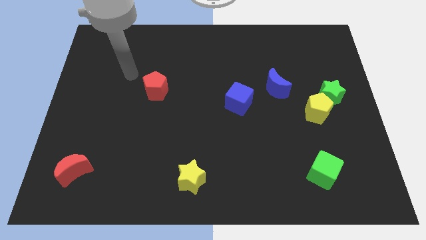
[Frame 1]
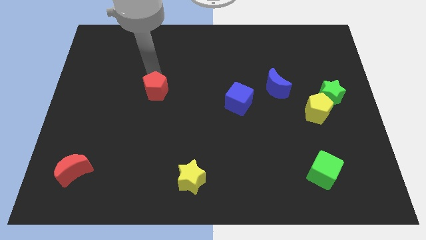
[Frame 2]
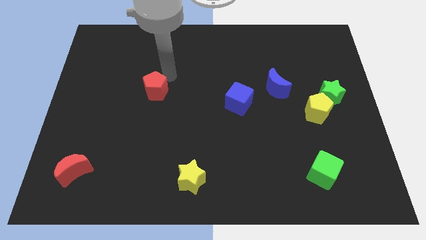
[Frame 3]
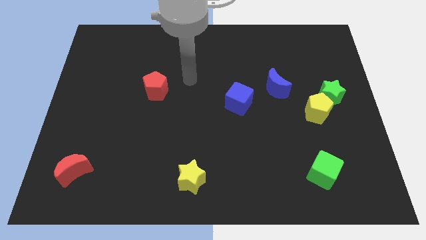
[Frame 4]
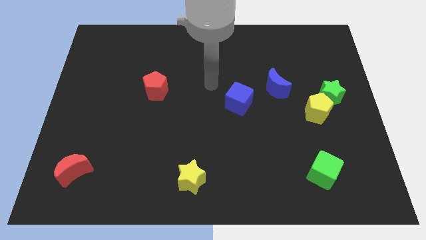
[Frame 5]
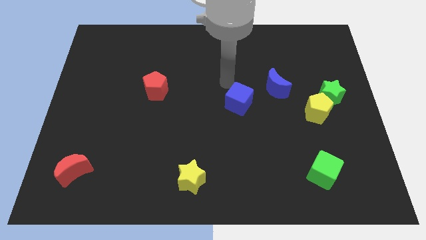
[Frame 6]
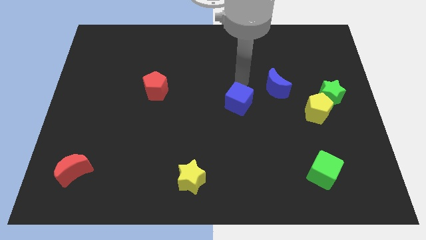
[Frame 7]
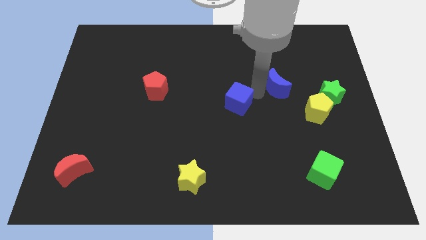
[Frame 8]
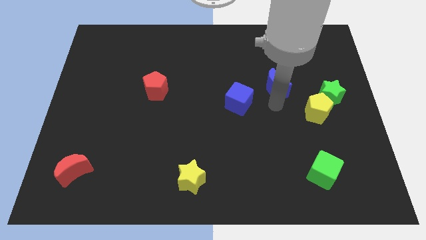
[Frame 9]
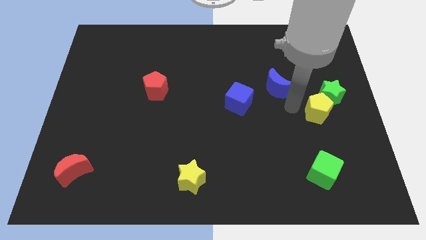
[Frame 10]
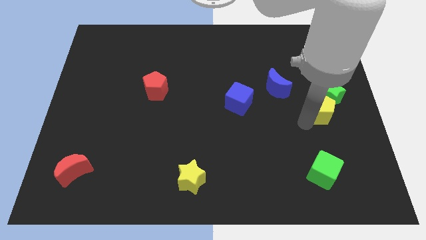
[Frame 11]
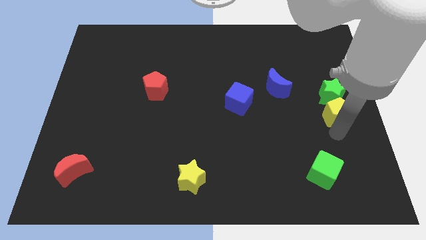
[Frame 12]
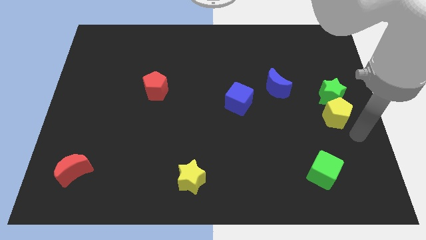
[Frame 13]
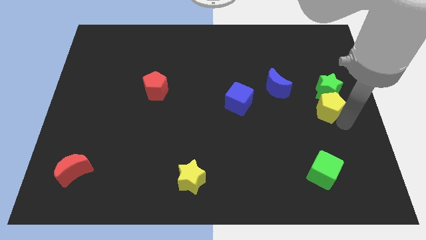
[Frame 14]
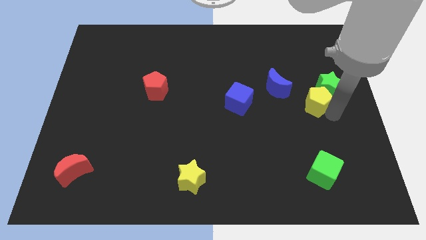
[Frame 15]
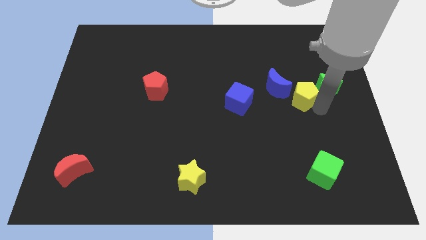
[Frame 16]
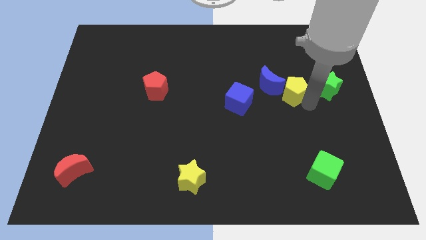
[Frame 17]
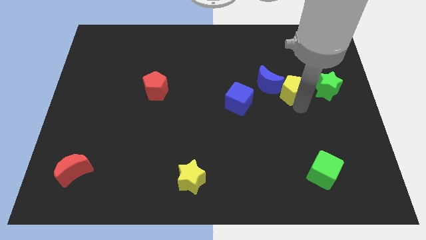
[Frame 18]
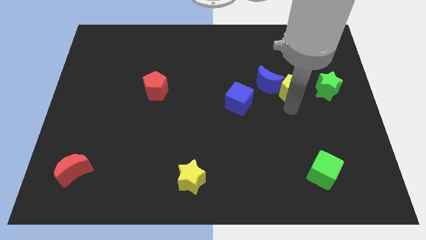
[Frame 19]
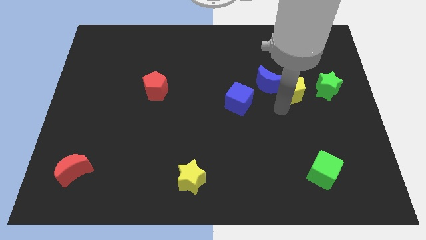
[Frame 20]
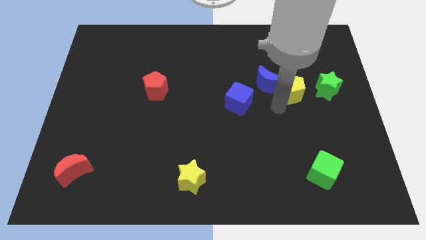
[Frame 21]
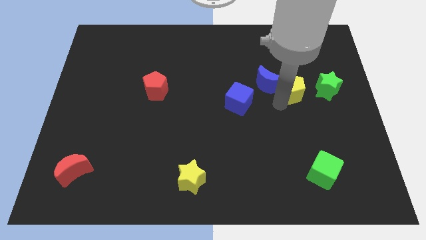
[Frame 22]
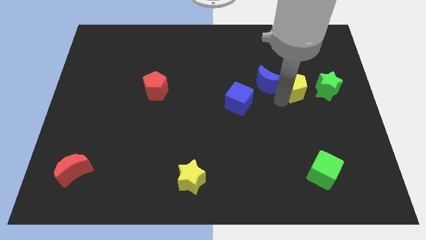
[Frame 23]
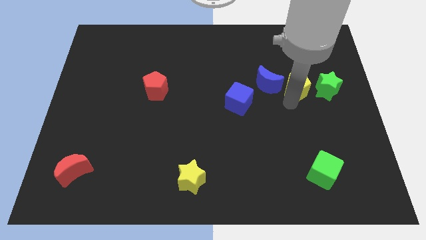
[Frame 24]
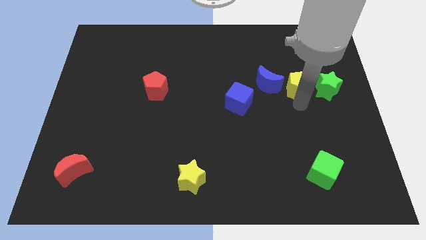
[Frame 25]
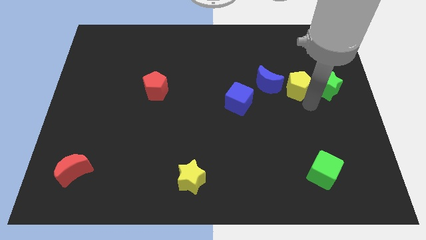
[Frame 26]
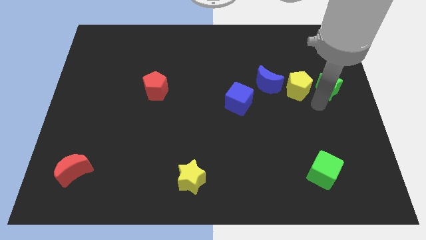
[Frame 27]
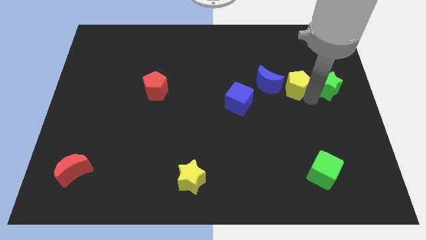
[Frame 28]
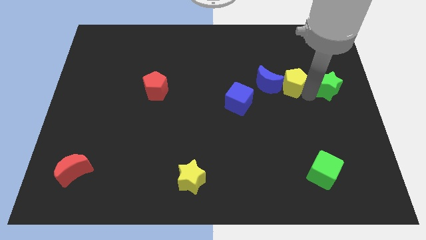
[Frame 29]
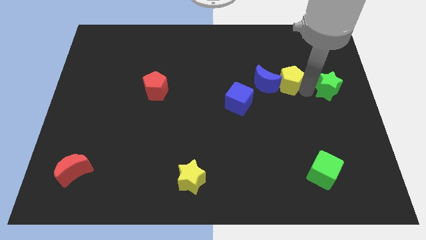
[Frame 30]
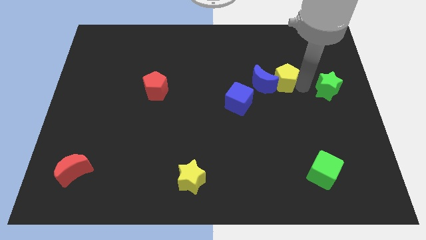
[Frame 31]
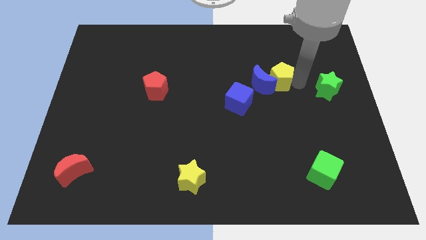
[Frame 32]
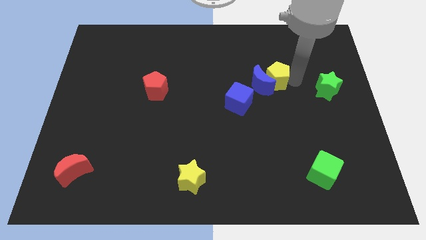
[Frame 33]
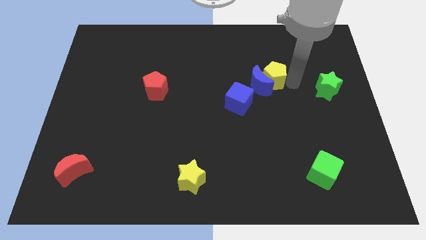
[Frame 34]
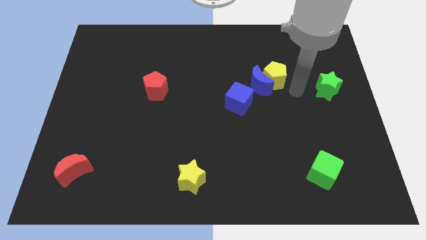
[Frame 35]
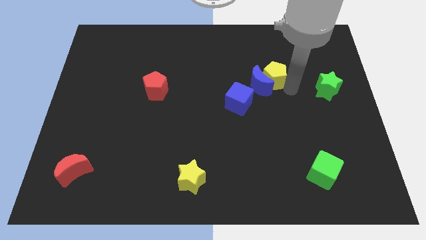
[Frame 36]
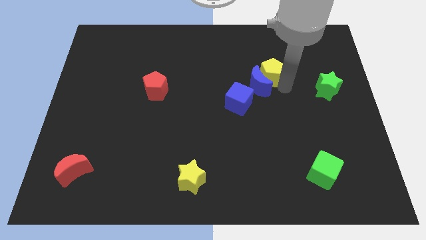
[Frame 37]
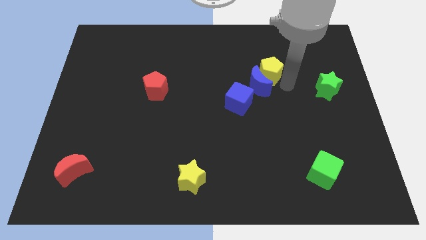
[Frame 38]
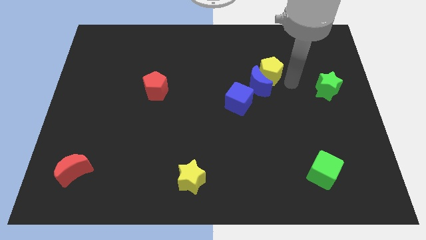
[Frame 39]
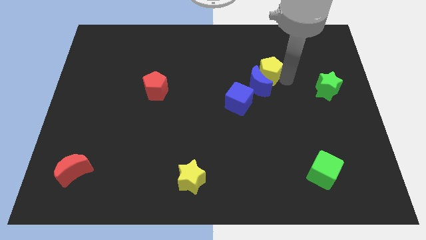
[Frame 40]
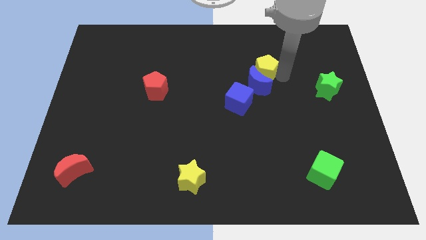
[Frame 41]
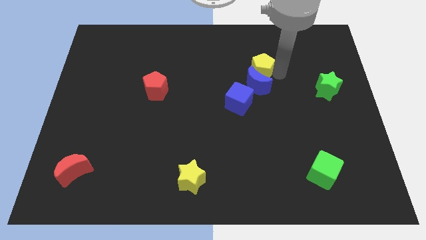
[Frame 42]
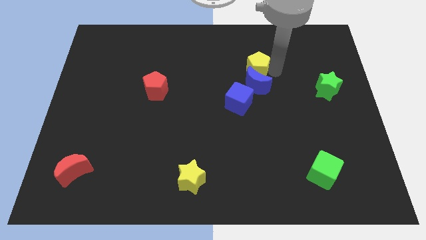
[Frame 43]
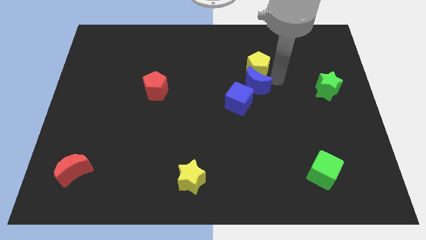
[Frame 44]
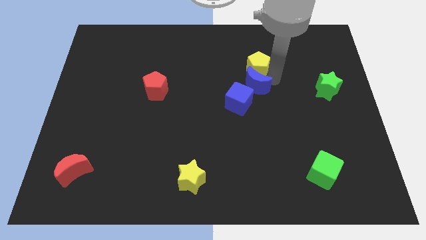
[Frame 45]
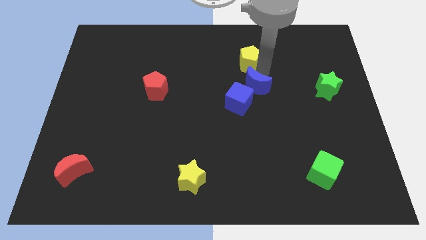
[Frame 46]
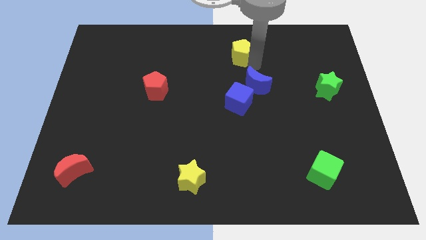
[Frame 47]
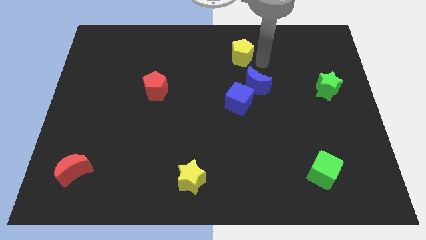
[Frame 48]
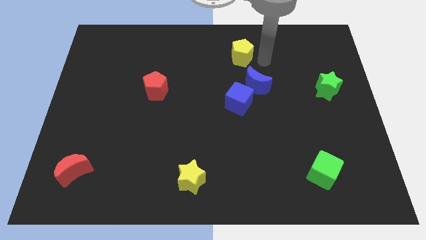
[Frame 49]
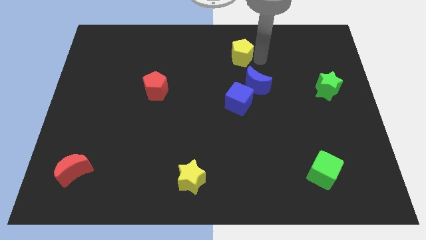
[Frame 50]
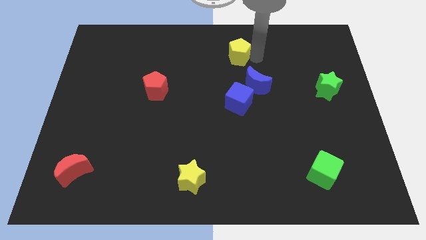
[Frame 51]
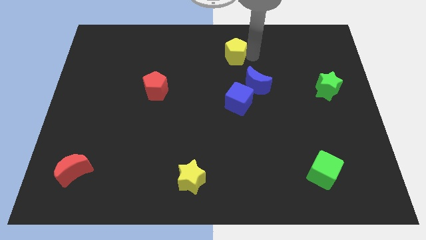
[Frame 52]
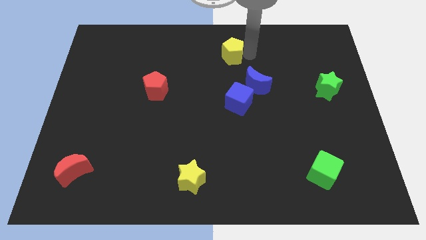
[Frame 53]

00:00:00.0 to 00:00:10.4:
put the yellow pentagon to the towards your base

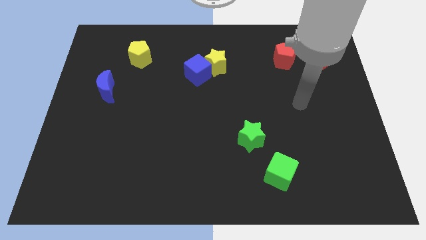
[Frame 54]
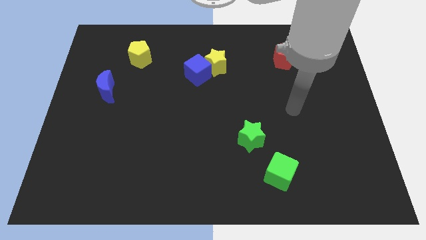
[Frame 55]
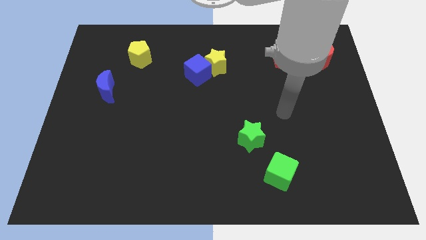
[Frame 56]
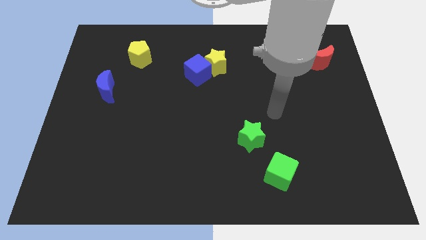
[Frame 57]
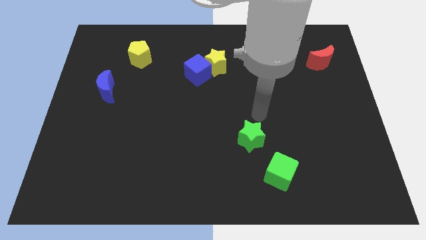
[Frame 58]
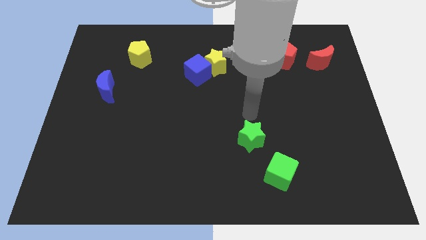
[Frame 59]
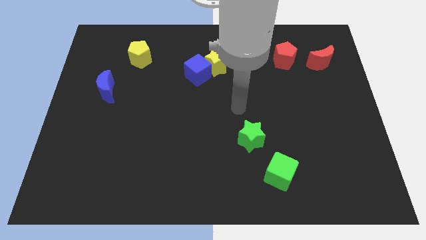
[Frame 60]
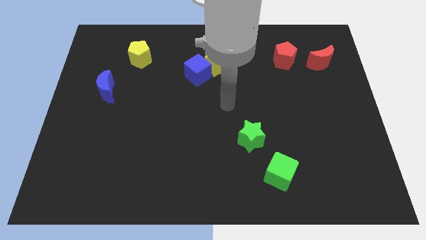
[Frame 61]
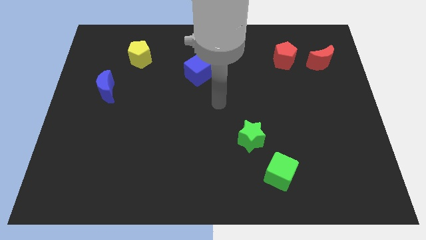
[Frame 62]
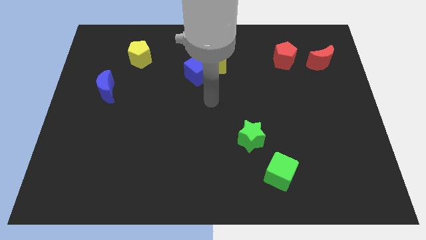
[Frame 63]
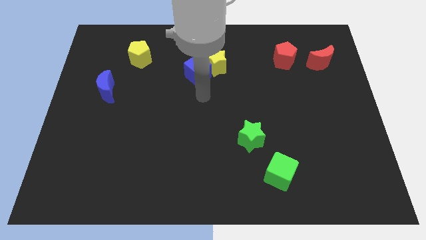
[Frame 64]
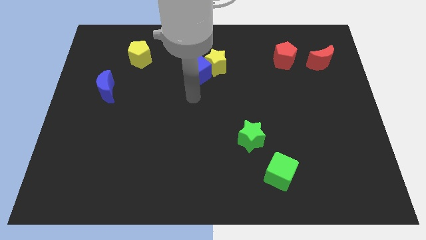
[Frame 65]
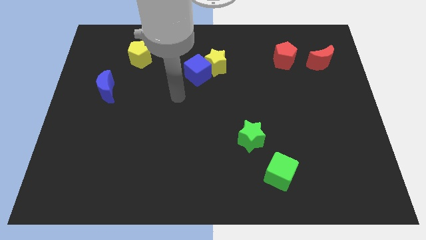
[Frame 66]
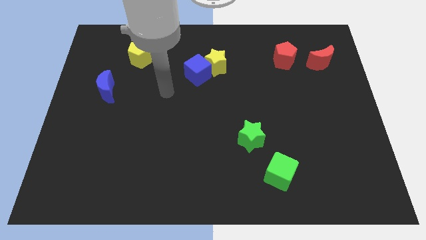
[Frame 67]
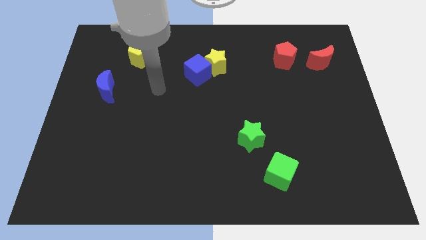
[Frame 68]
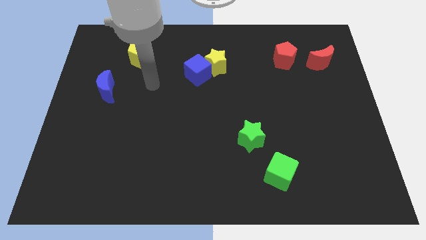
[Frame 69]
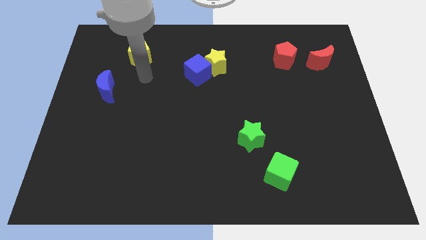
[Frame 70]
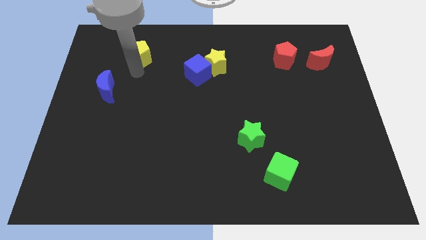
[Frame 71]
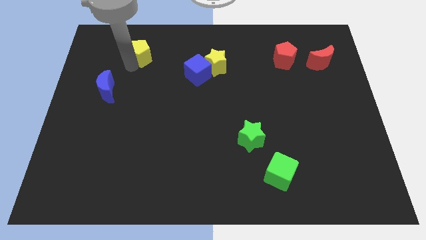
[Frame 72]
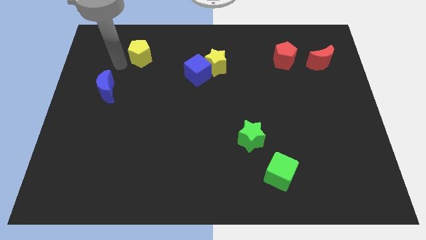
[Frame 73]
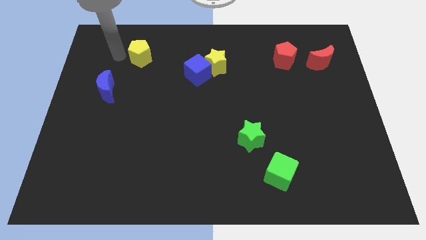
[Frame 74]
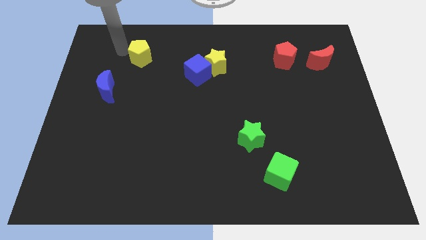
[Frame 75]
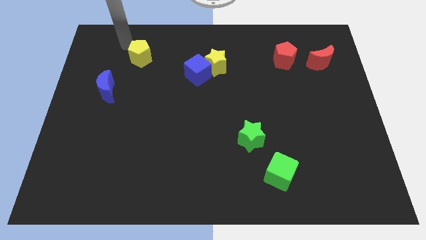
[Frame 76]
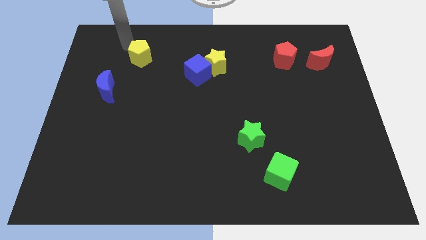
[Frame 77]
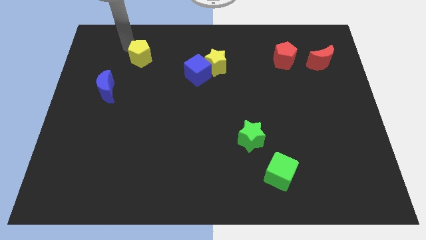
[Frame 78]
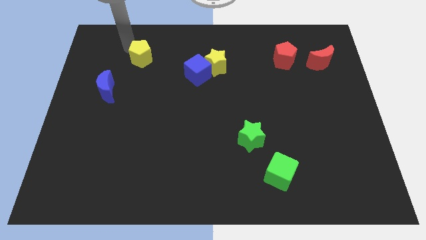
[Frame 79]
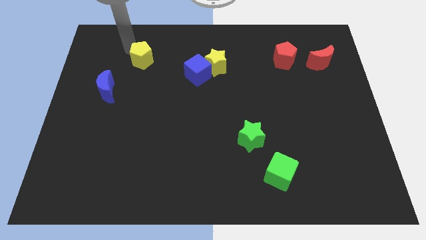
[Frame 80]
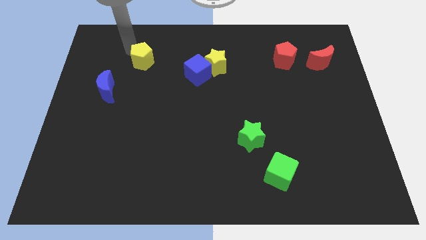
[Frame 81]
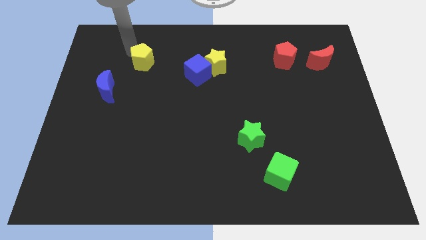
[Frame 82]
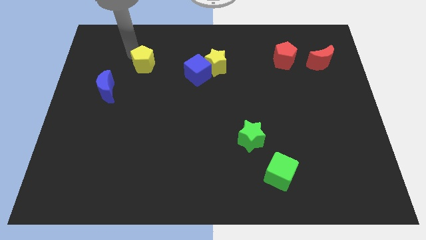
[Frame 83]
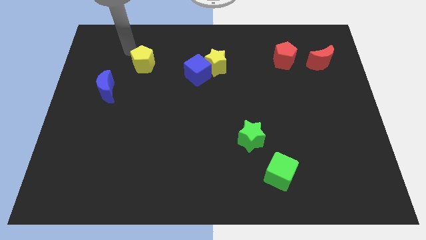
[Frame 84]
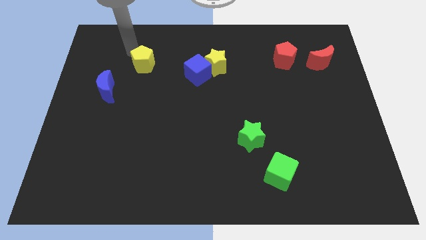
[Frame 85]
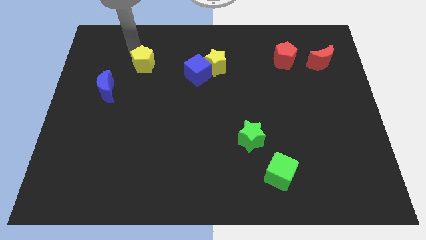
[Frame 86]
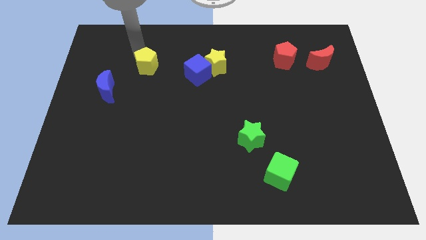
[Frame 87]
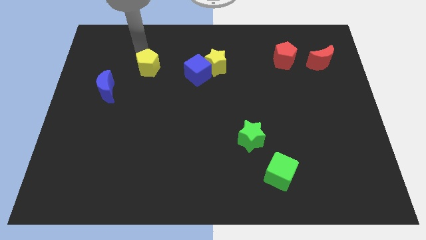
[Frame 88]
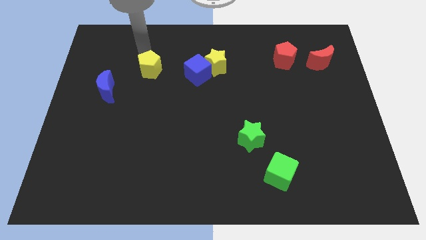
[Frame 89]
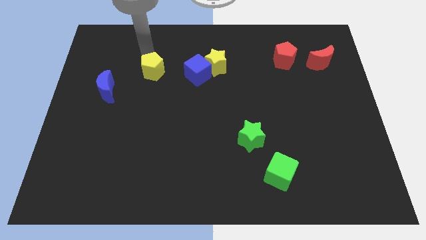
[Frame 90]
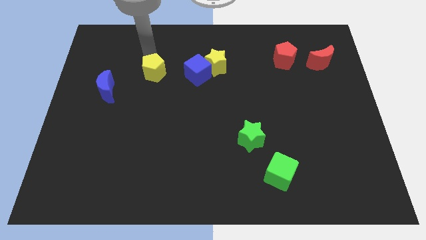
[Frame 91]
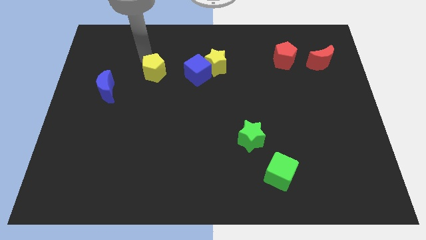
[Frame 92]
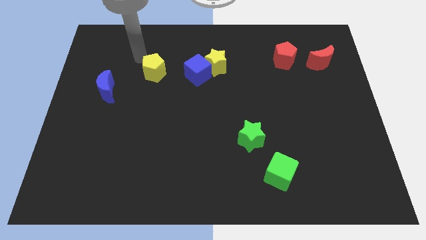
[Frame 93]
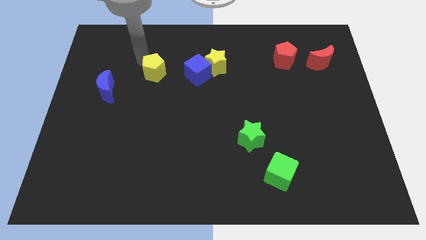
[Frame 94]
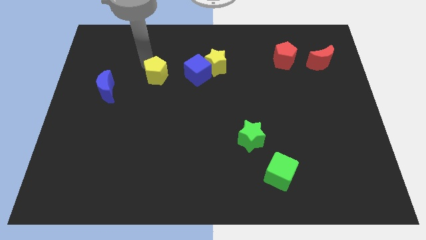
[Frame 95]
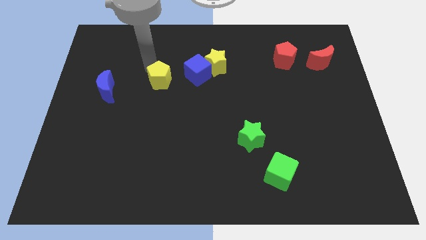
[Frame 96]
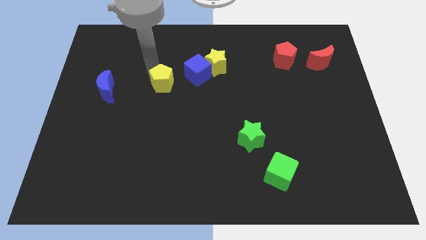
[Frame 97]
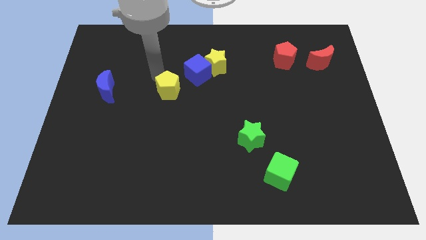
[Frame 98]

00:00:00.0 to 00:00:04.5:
put the yellow pentagon to the middle of the board
